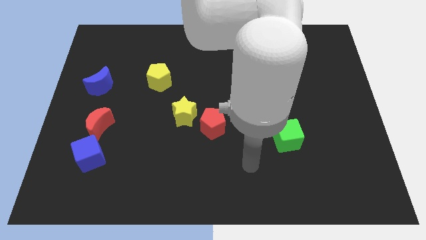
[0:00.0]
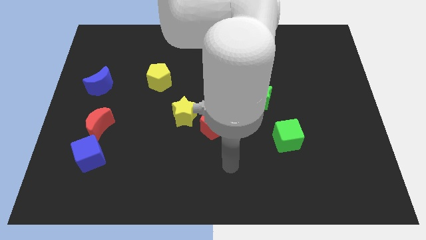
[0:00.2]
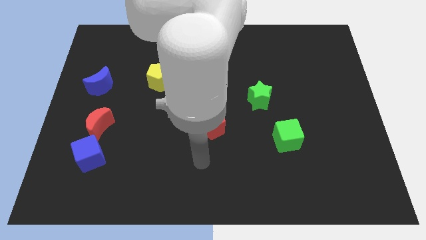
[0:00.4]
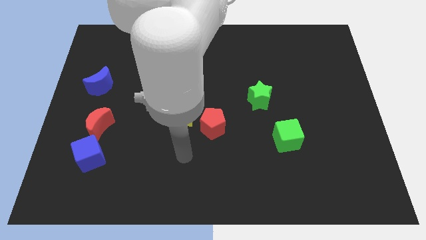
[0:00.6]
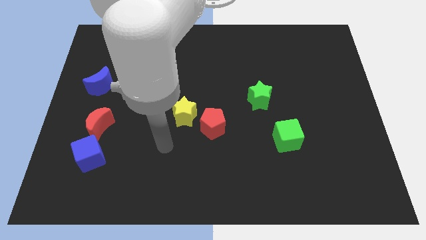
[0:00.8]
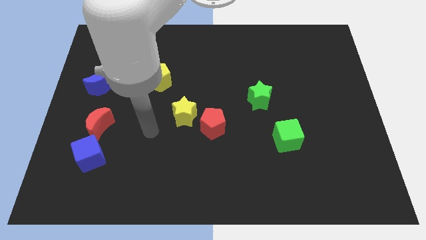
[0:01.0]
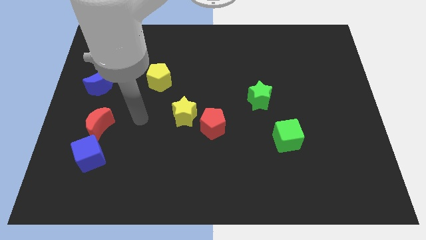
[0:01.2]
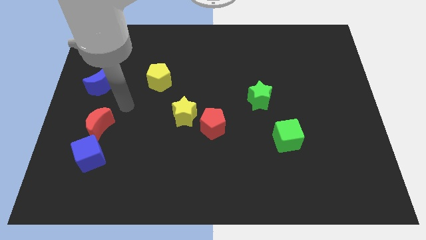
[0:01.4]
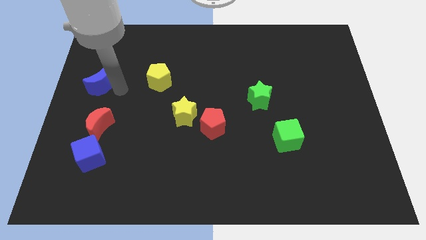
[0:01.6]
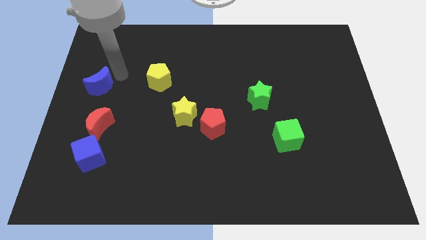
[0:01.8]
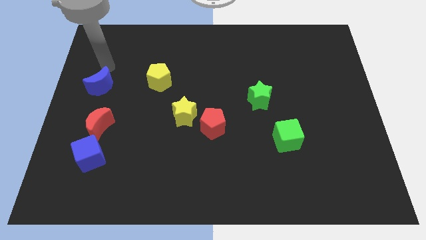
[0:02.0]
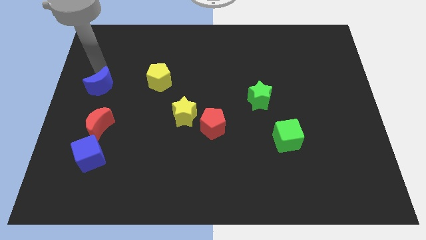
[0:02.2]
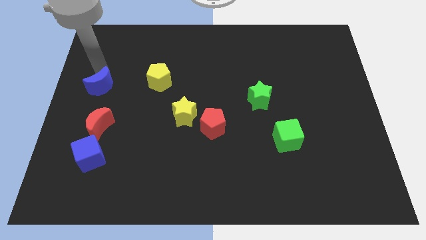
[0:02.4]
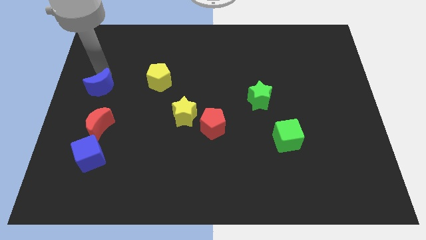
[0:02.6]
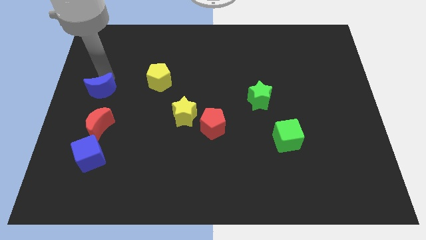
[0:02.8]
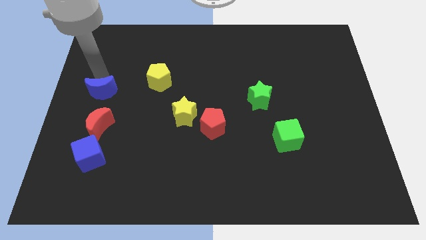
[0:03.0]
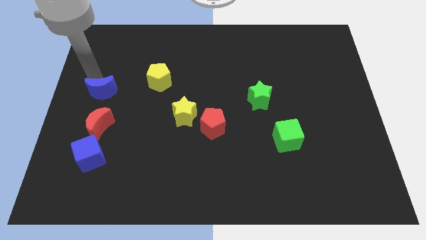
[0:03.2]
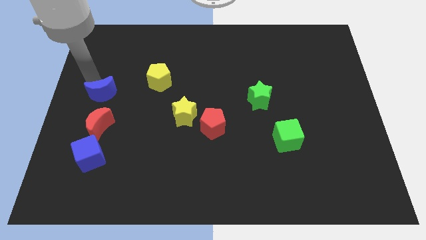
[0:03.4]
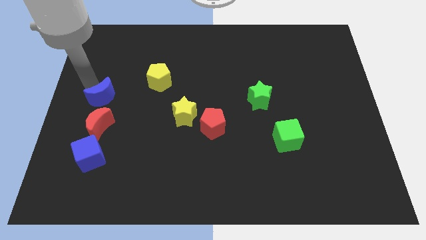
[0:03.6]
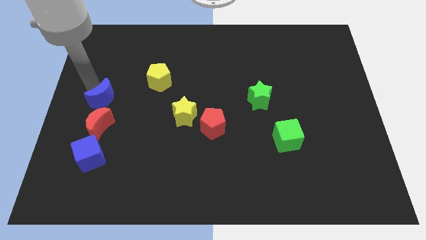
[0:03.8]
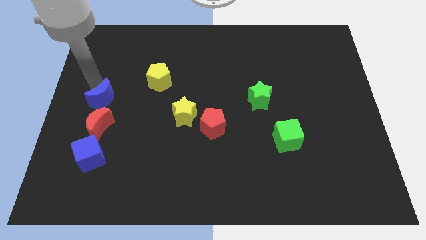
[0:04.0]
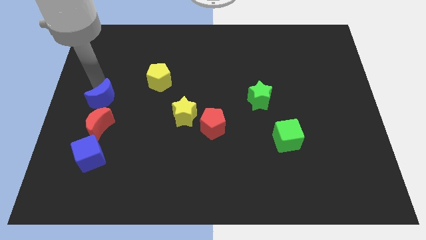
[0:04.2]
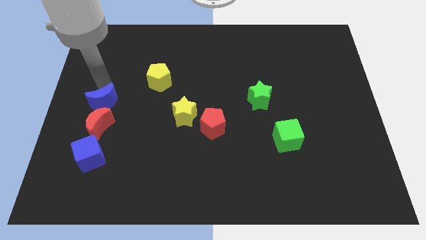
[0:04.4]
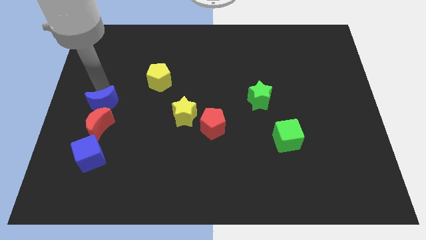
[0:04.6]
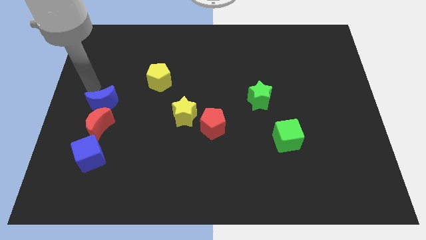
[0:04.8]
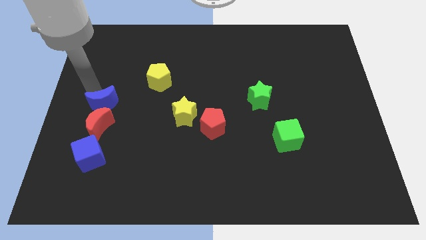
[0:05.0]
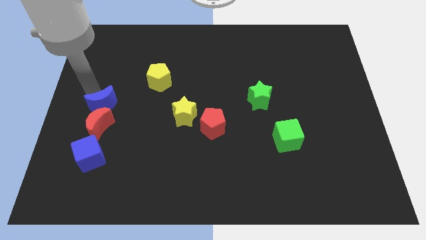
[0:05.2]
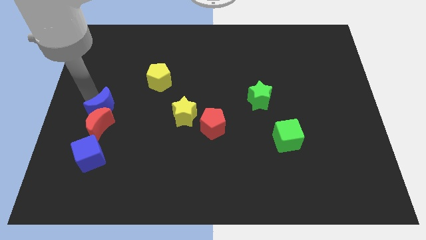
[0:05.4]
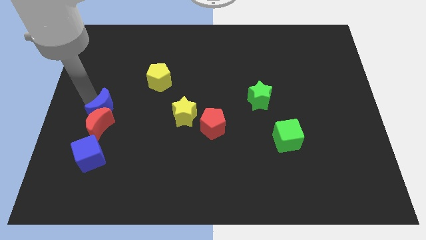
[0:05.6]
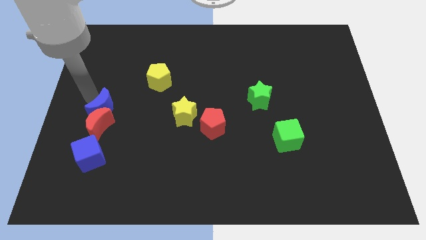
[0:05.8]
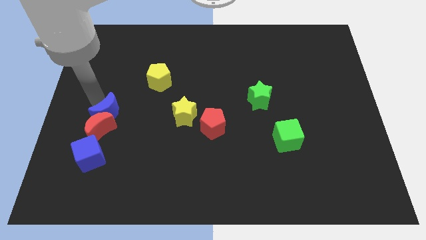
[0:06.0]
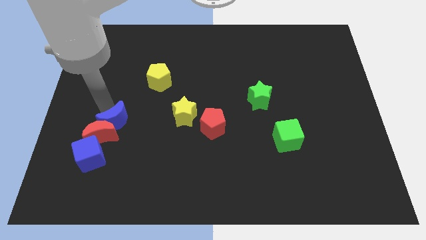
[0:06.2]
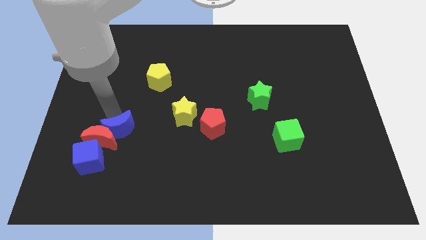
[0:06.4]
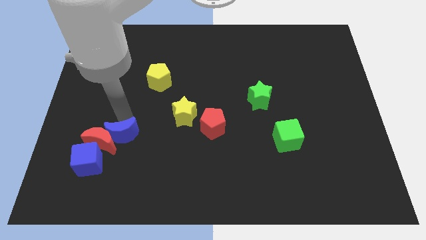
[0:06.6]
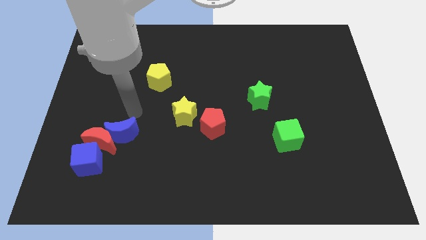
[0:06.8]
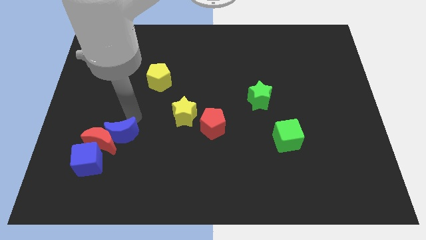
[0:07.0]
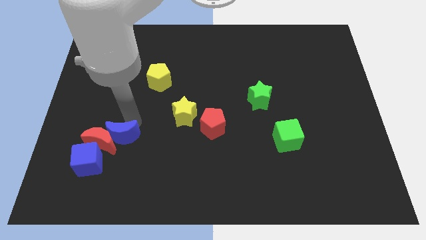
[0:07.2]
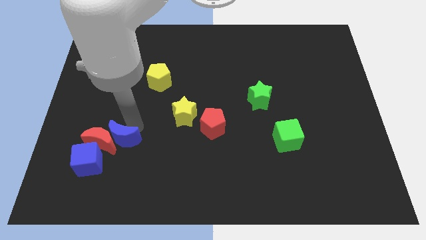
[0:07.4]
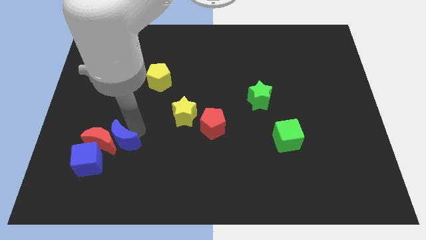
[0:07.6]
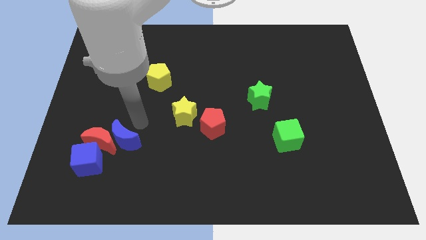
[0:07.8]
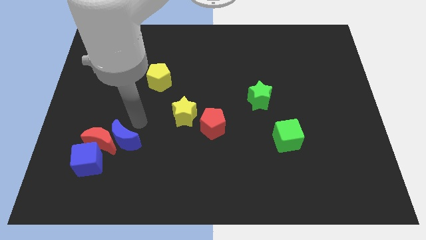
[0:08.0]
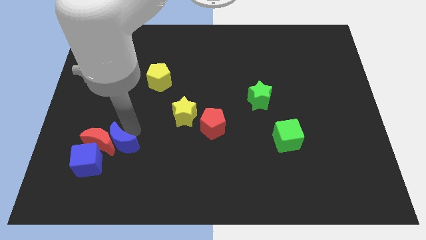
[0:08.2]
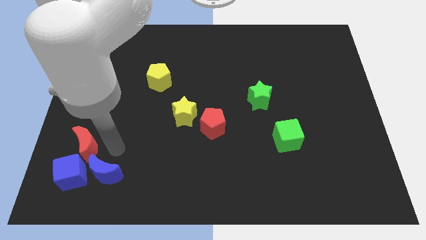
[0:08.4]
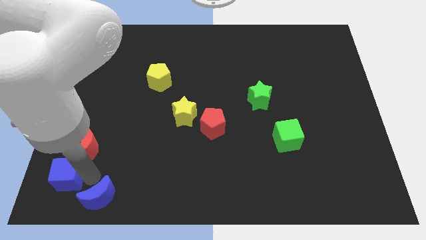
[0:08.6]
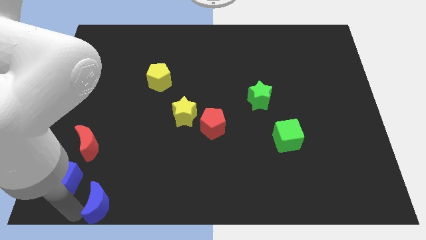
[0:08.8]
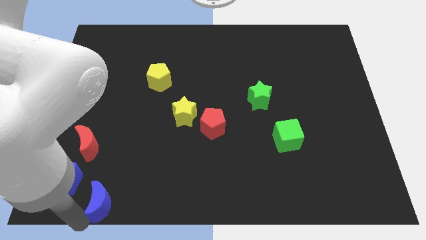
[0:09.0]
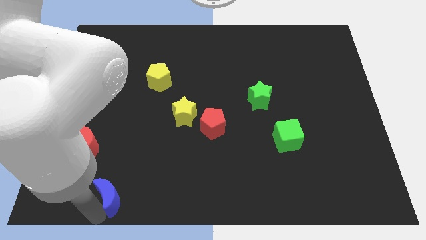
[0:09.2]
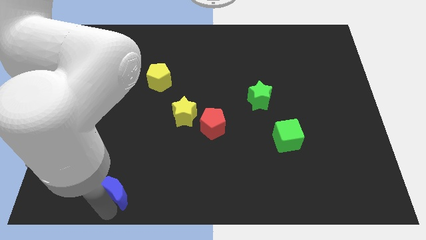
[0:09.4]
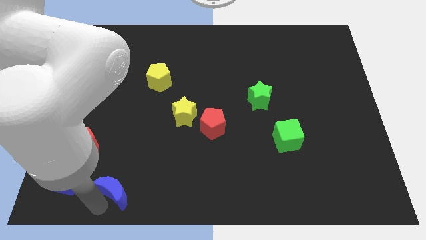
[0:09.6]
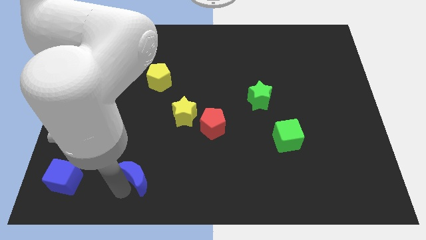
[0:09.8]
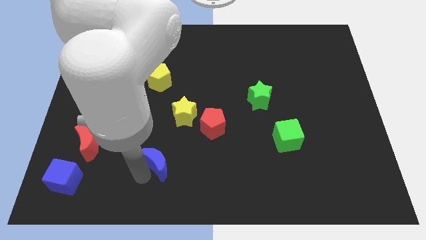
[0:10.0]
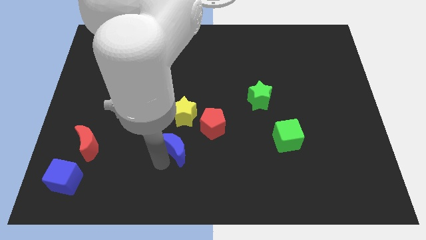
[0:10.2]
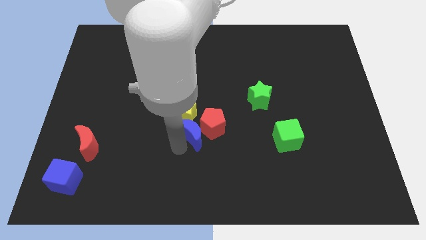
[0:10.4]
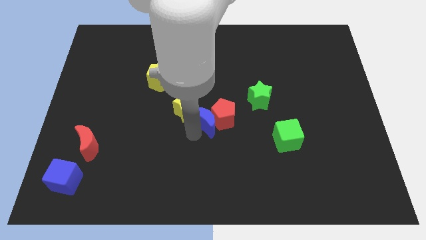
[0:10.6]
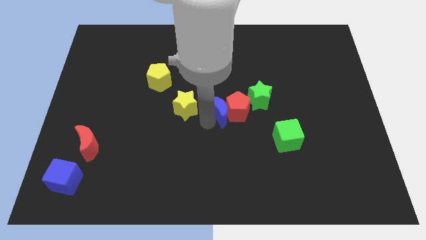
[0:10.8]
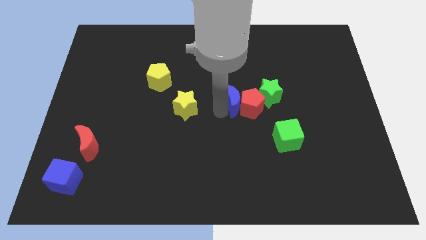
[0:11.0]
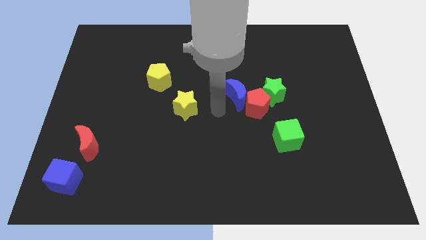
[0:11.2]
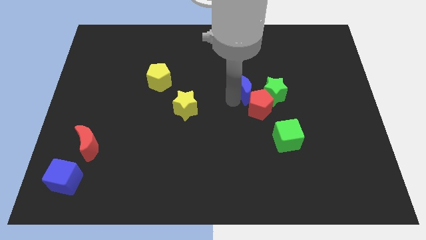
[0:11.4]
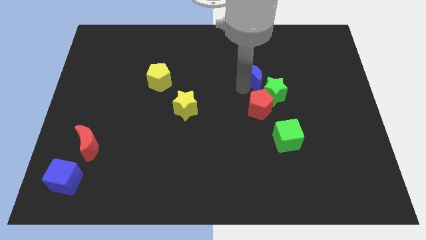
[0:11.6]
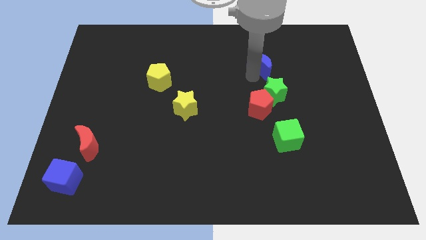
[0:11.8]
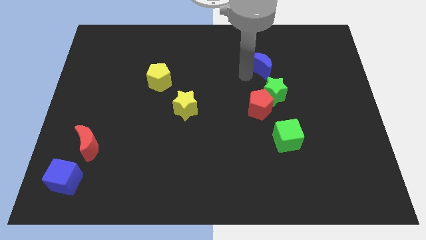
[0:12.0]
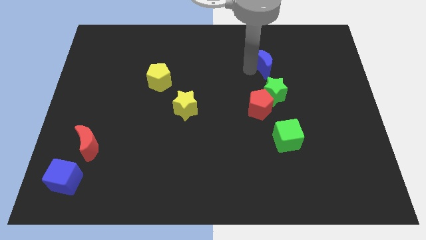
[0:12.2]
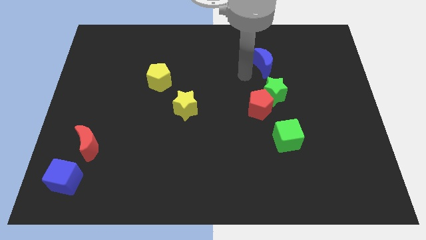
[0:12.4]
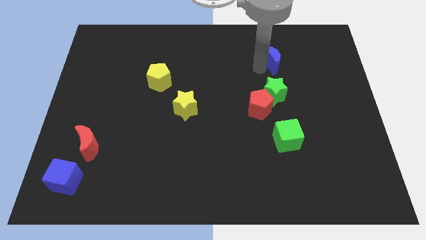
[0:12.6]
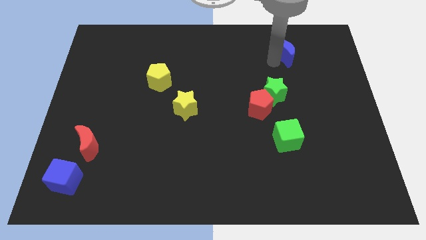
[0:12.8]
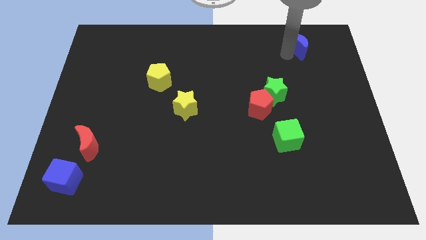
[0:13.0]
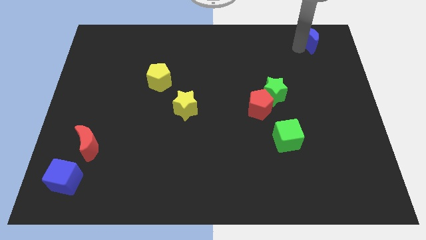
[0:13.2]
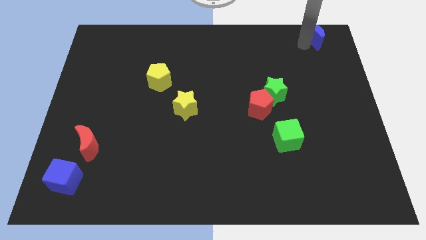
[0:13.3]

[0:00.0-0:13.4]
put the blue moon to the top right
